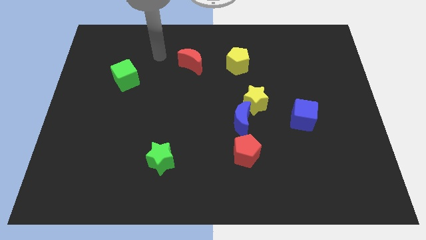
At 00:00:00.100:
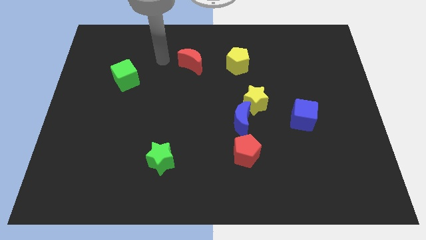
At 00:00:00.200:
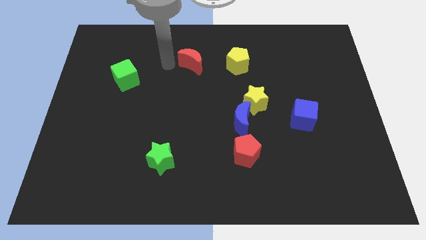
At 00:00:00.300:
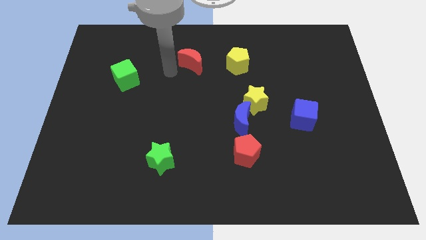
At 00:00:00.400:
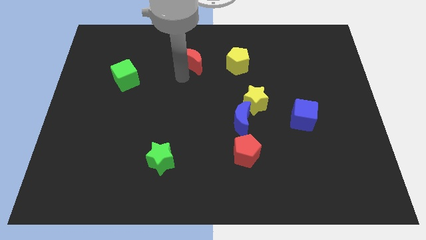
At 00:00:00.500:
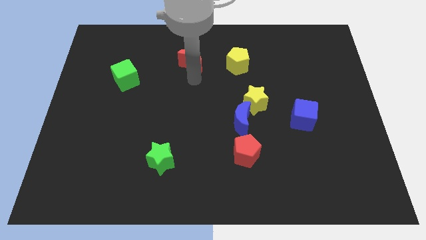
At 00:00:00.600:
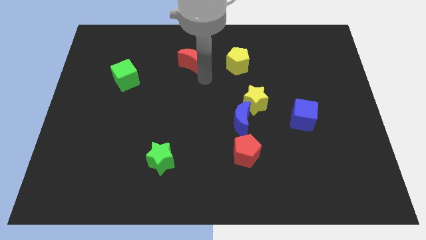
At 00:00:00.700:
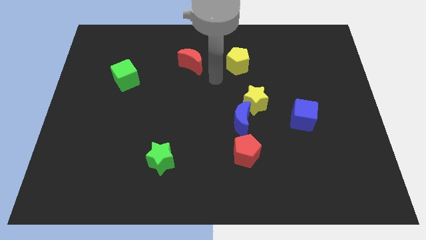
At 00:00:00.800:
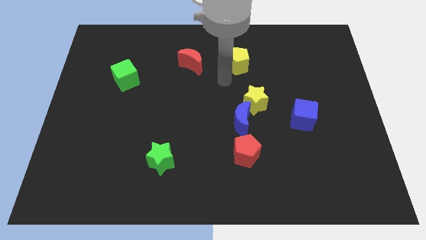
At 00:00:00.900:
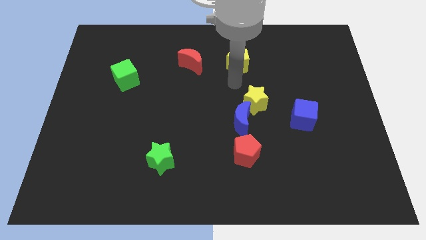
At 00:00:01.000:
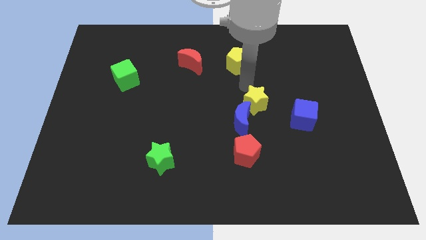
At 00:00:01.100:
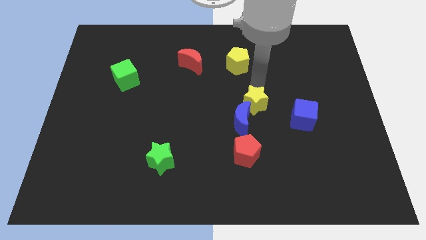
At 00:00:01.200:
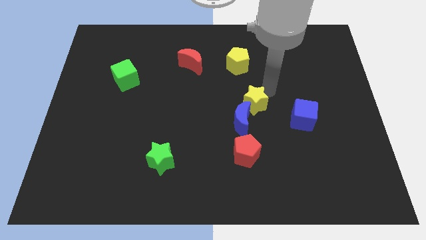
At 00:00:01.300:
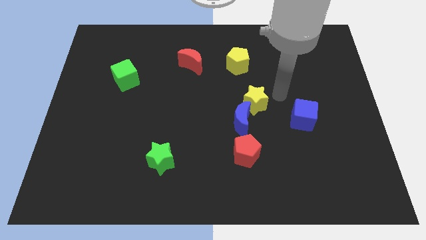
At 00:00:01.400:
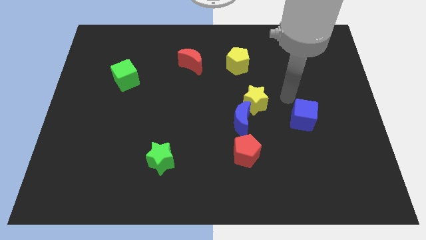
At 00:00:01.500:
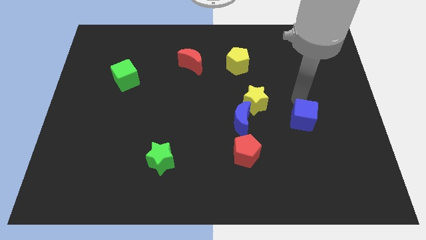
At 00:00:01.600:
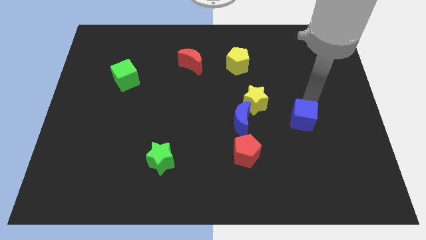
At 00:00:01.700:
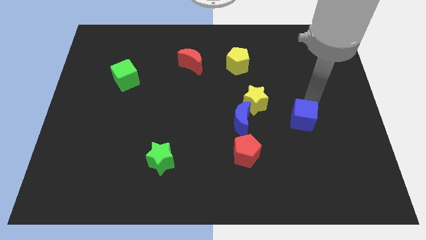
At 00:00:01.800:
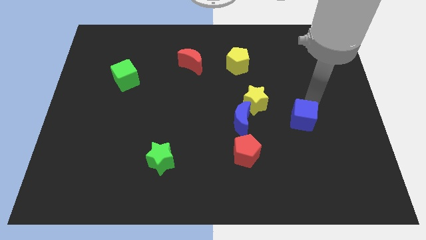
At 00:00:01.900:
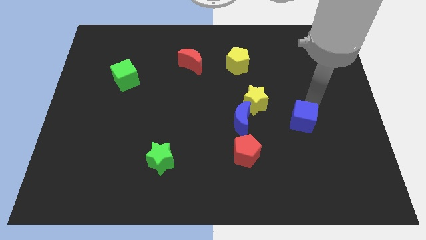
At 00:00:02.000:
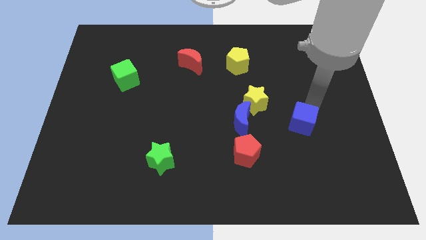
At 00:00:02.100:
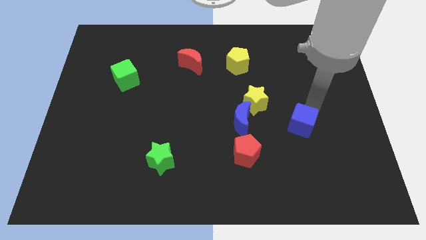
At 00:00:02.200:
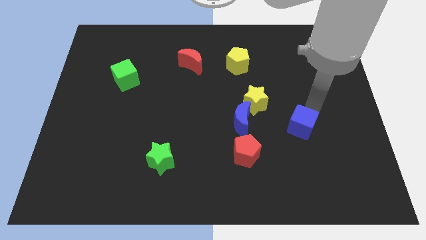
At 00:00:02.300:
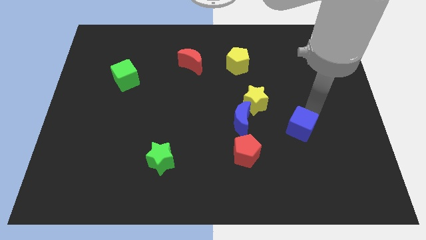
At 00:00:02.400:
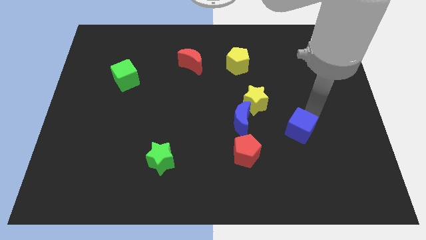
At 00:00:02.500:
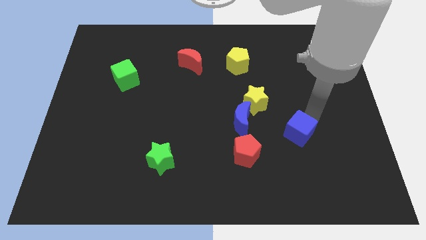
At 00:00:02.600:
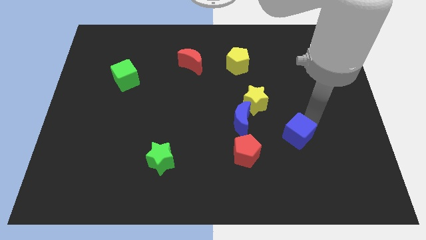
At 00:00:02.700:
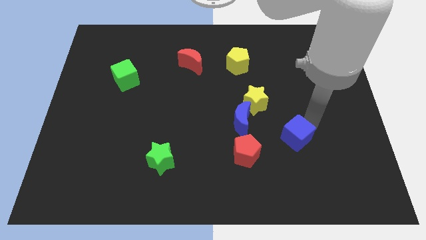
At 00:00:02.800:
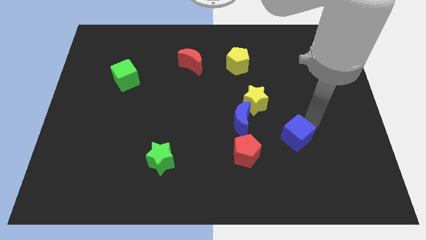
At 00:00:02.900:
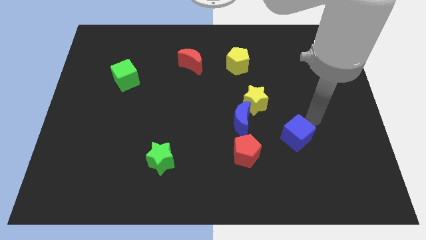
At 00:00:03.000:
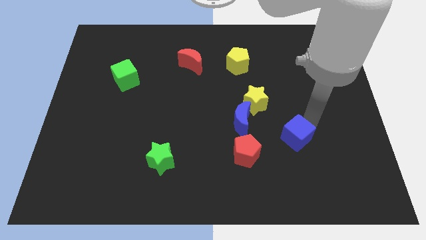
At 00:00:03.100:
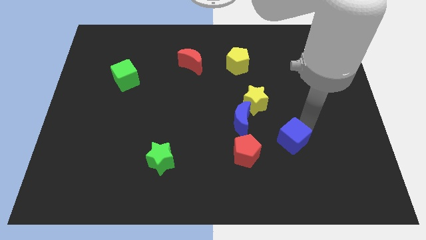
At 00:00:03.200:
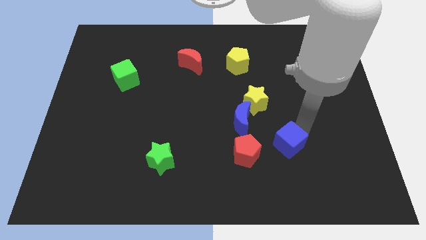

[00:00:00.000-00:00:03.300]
push the blue cube a bit downwards and then to the left

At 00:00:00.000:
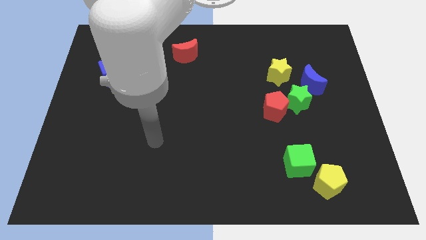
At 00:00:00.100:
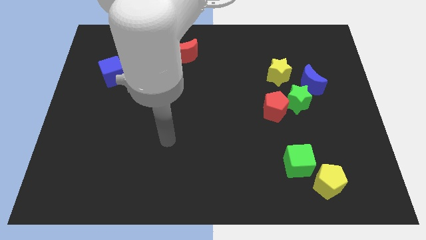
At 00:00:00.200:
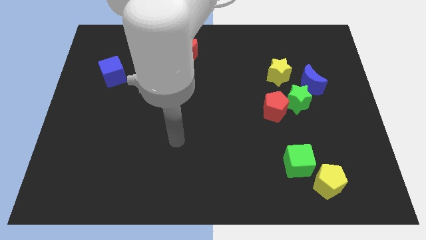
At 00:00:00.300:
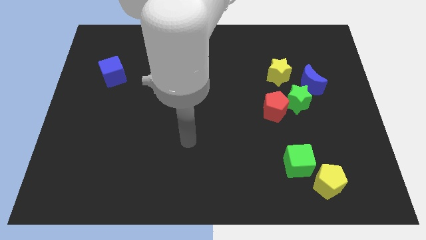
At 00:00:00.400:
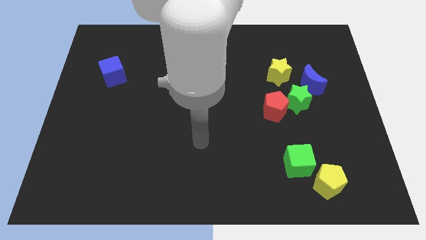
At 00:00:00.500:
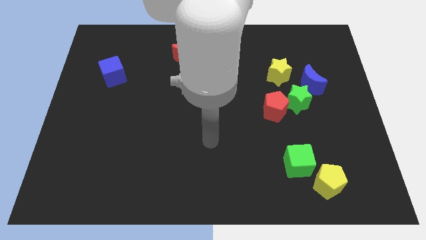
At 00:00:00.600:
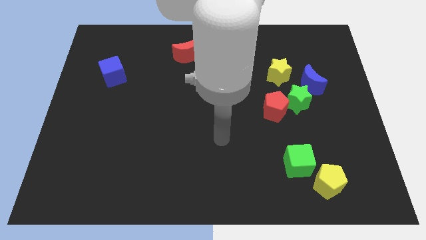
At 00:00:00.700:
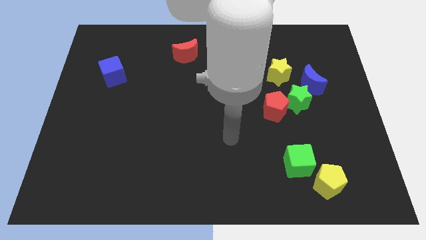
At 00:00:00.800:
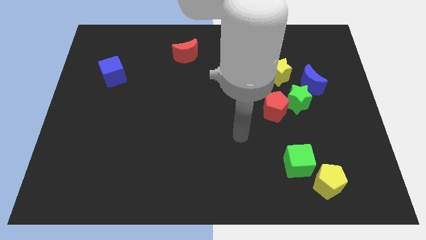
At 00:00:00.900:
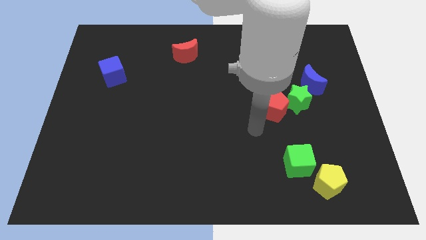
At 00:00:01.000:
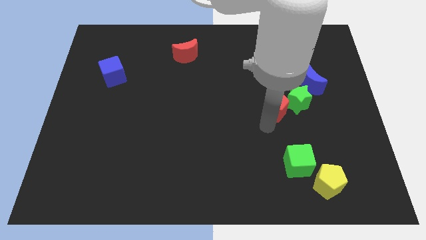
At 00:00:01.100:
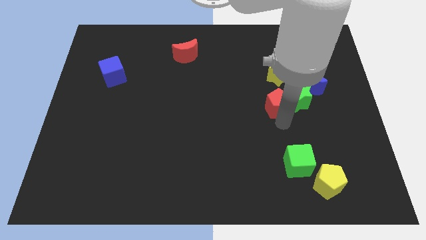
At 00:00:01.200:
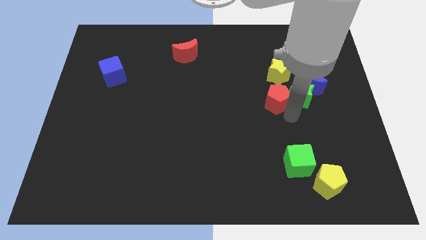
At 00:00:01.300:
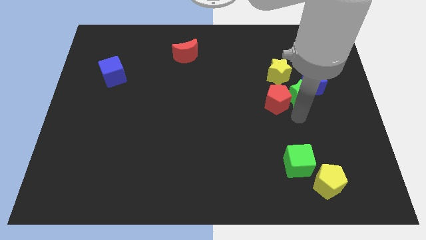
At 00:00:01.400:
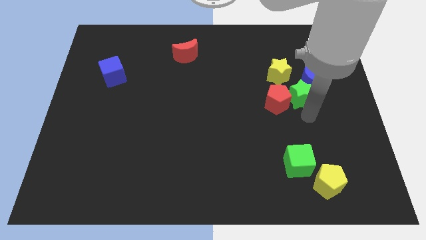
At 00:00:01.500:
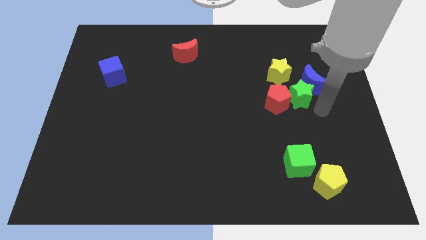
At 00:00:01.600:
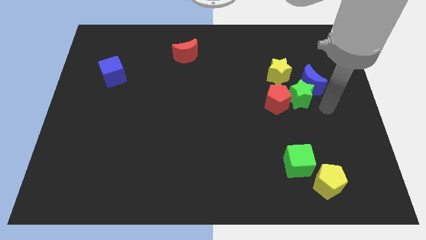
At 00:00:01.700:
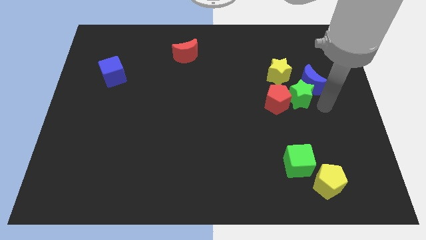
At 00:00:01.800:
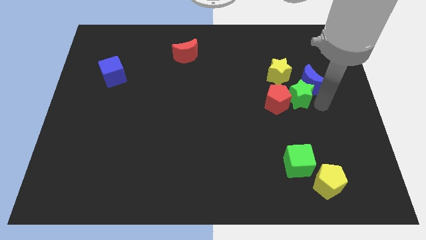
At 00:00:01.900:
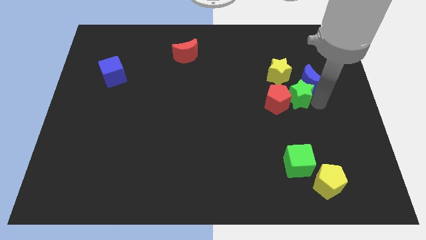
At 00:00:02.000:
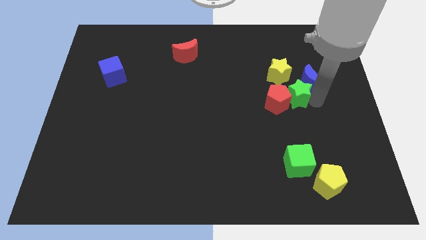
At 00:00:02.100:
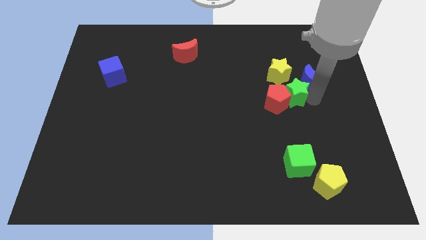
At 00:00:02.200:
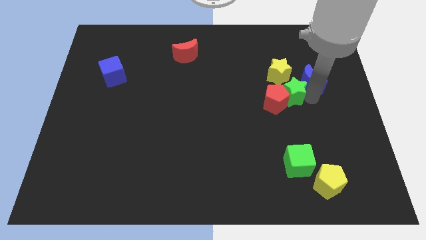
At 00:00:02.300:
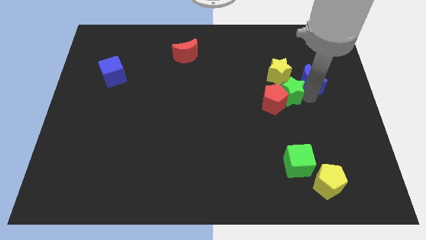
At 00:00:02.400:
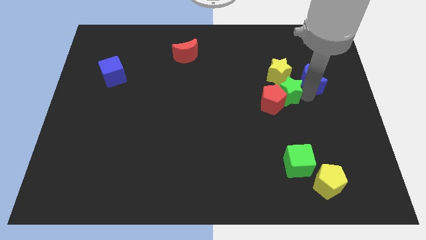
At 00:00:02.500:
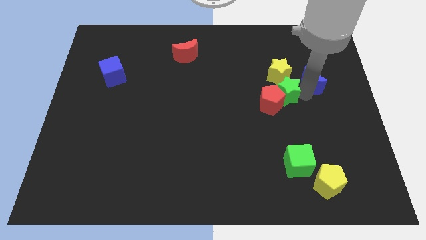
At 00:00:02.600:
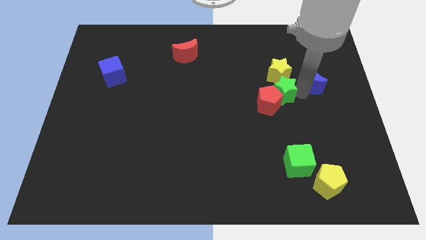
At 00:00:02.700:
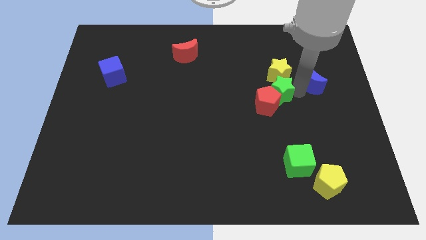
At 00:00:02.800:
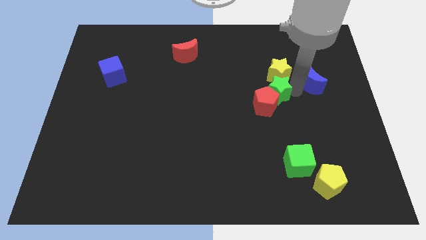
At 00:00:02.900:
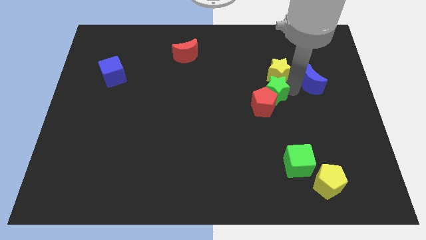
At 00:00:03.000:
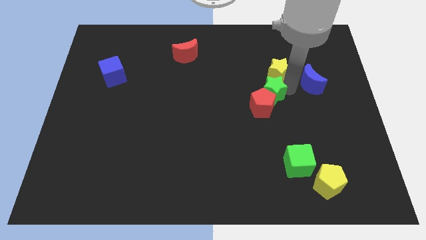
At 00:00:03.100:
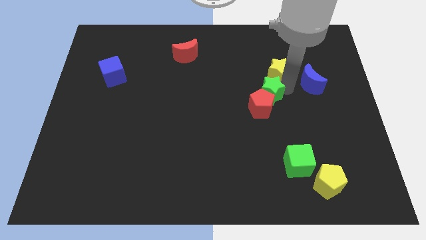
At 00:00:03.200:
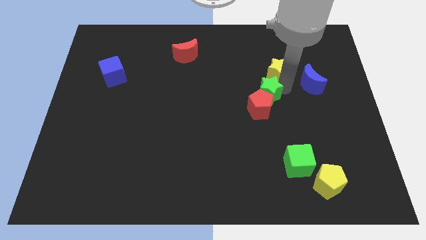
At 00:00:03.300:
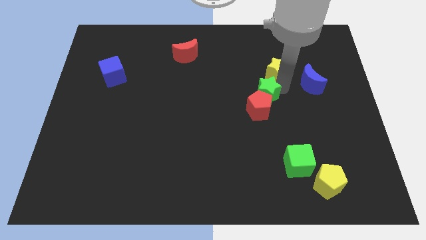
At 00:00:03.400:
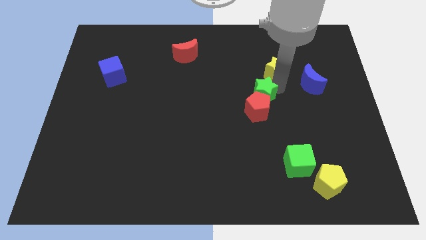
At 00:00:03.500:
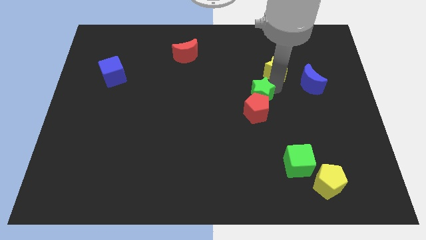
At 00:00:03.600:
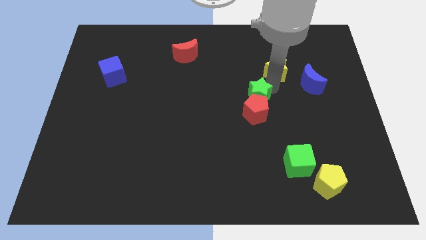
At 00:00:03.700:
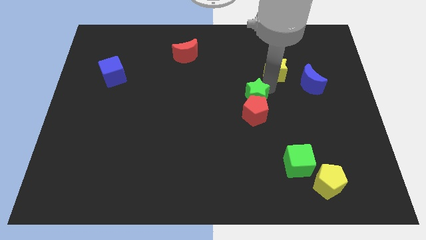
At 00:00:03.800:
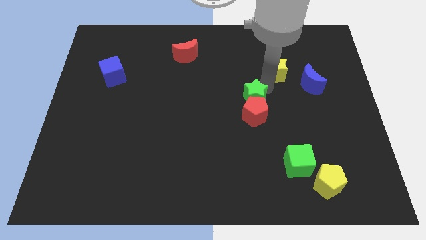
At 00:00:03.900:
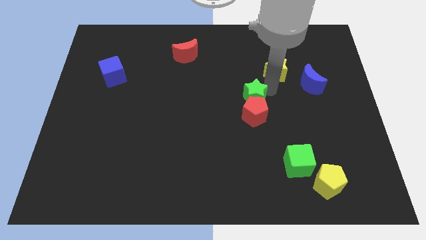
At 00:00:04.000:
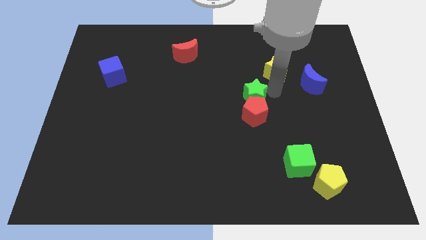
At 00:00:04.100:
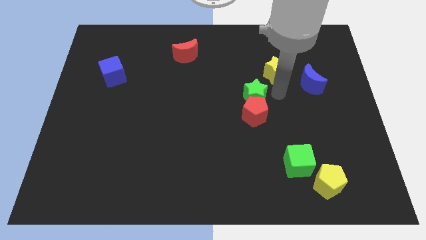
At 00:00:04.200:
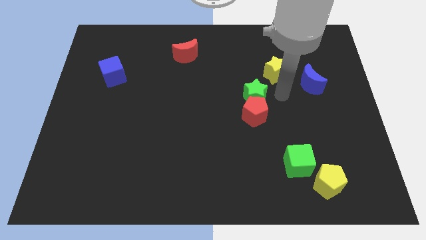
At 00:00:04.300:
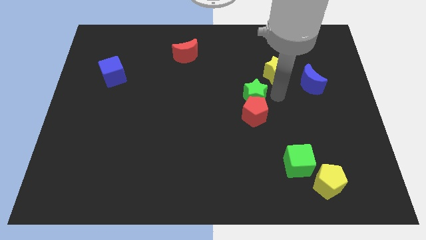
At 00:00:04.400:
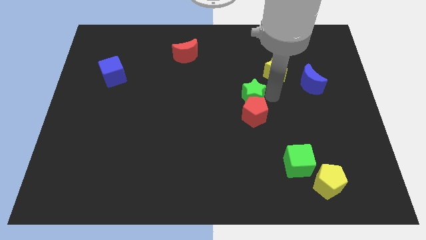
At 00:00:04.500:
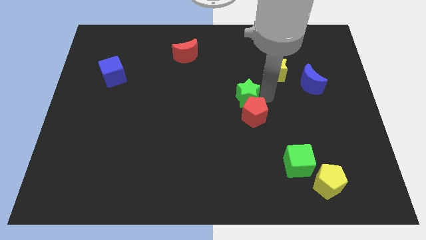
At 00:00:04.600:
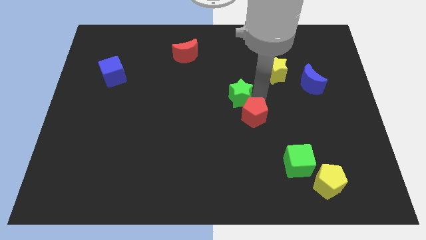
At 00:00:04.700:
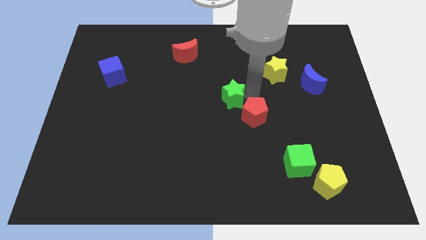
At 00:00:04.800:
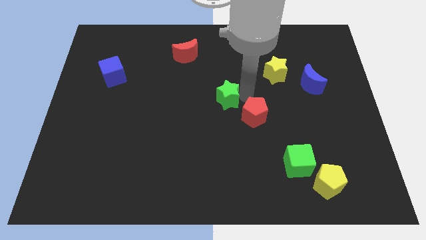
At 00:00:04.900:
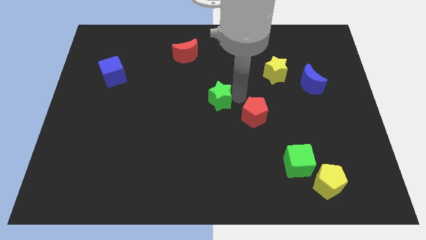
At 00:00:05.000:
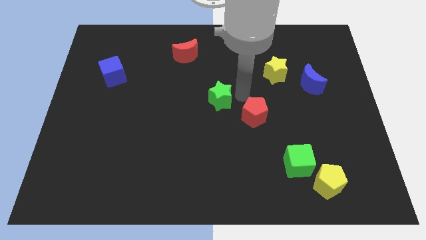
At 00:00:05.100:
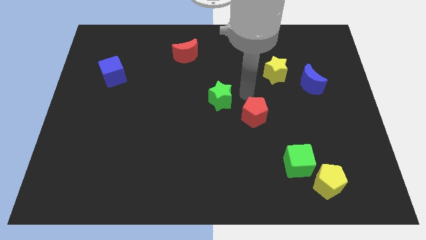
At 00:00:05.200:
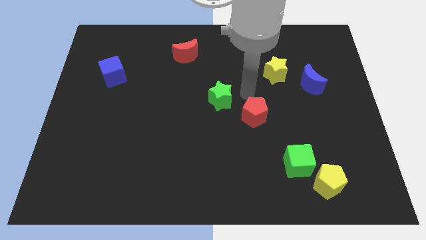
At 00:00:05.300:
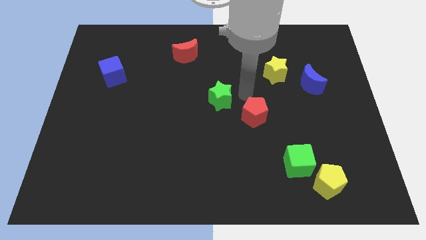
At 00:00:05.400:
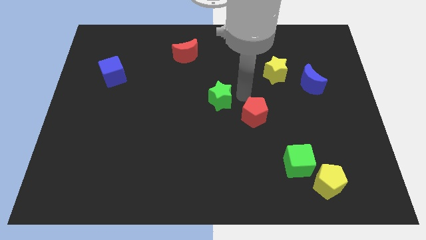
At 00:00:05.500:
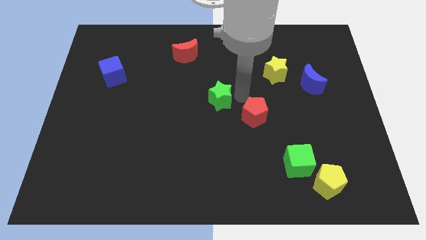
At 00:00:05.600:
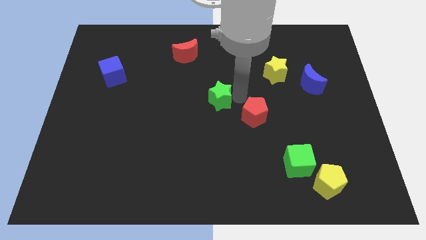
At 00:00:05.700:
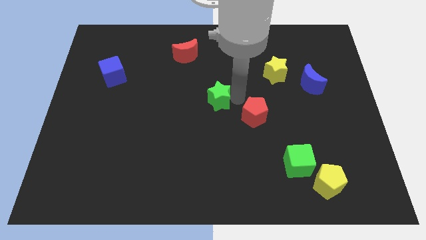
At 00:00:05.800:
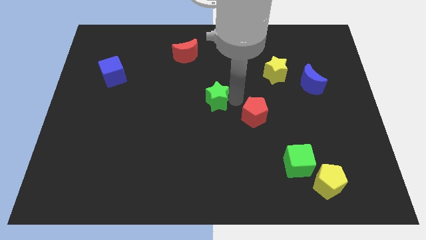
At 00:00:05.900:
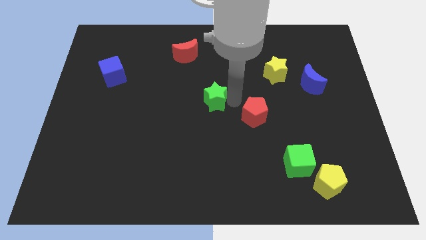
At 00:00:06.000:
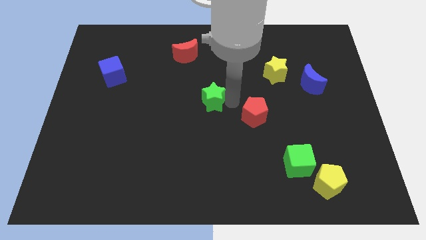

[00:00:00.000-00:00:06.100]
push the green star left
